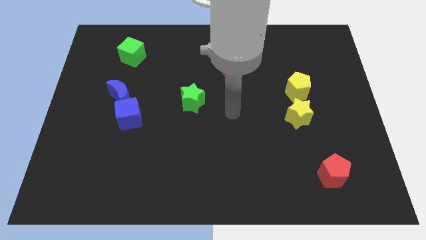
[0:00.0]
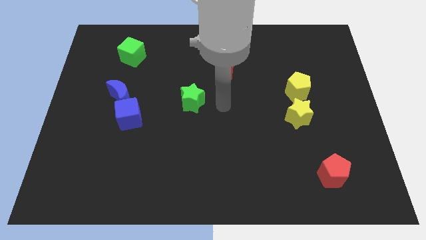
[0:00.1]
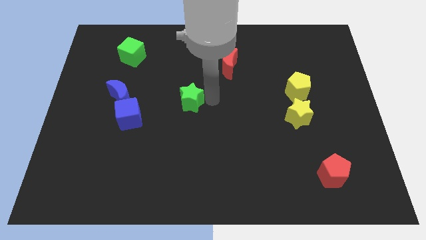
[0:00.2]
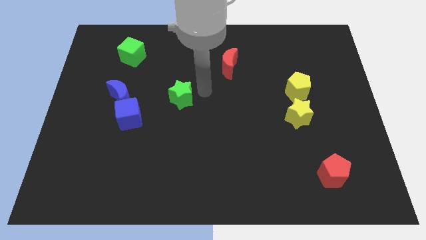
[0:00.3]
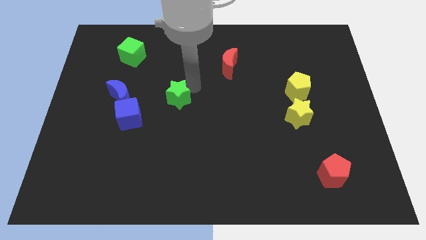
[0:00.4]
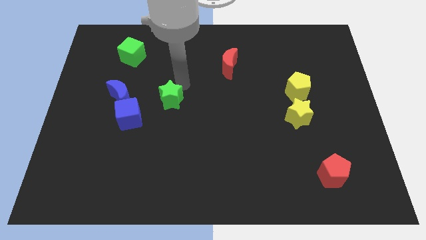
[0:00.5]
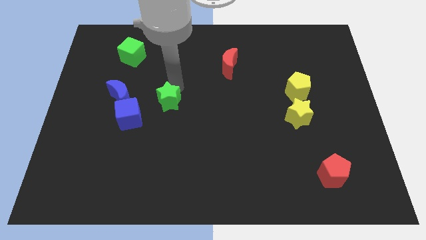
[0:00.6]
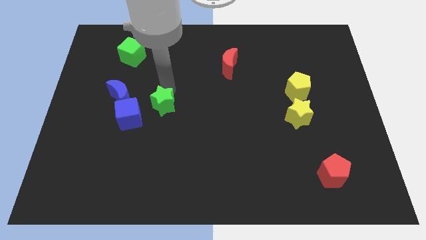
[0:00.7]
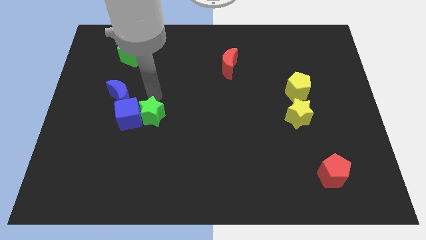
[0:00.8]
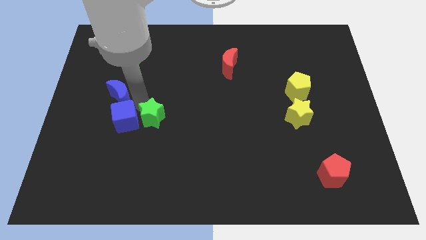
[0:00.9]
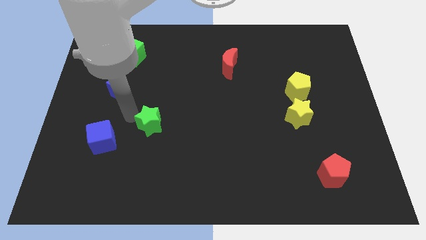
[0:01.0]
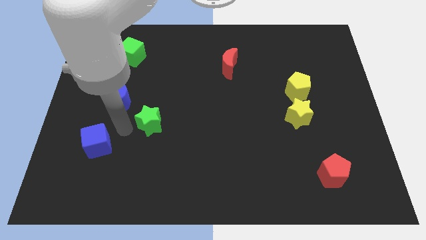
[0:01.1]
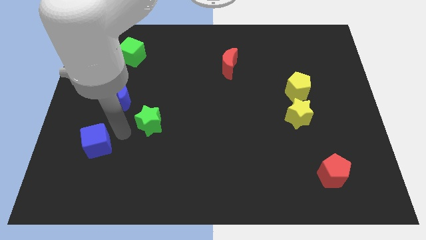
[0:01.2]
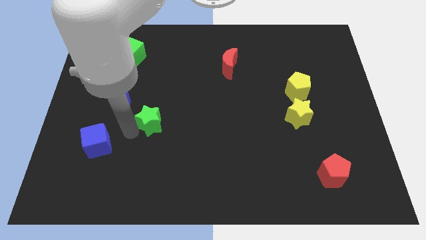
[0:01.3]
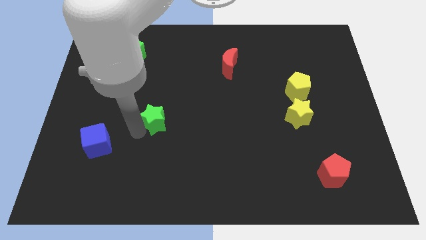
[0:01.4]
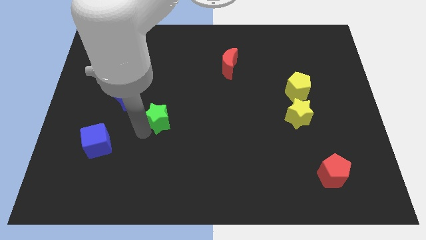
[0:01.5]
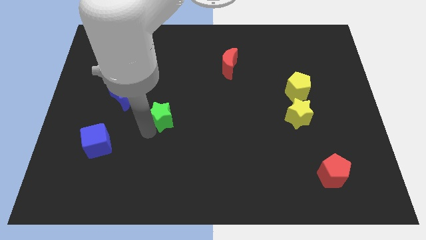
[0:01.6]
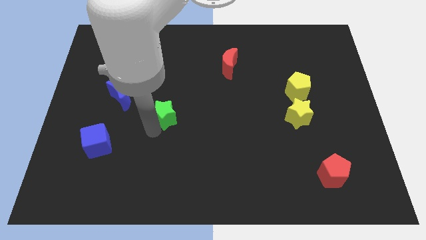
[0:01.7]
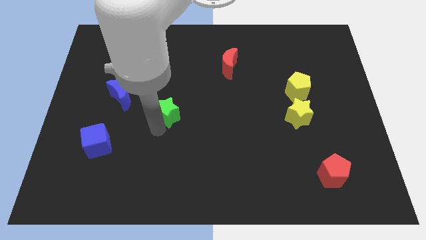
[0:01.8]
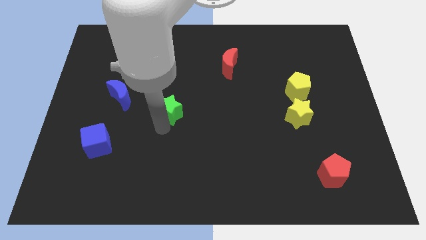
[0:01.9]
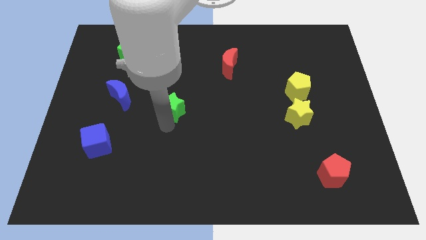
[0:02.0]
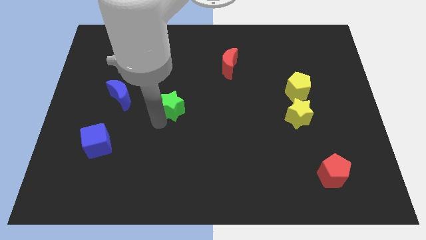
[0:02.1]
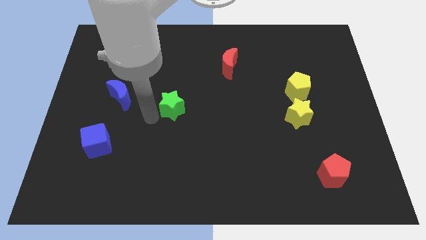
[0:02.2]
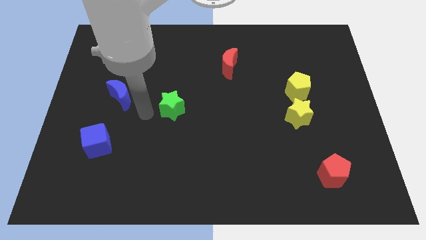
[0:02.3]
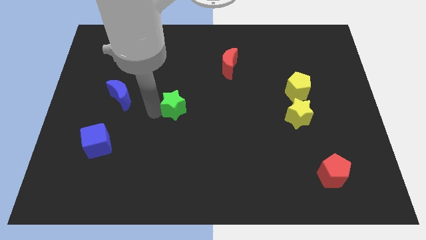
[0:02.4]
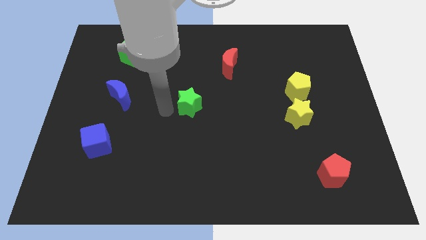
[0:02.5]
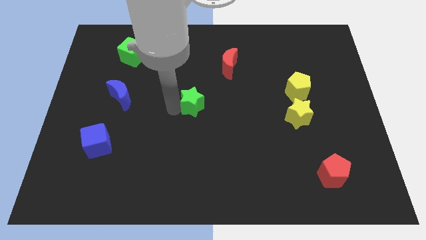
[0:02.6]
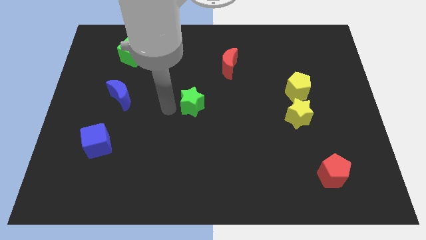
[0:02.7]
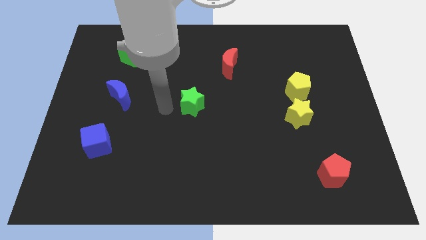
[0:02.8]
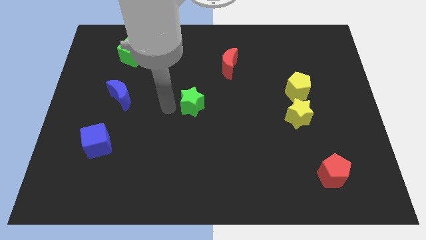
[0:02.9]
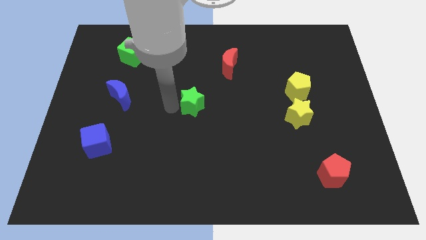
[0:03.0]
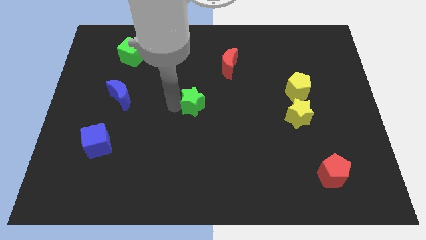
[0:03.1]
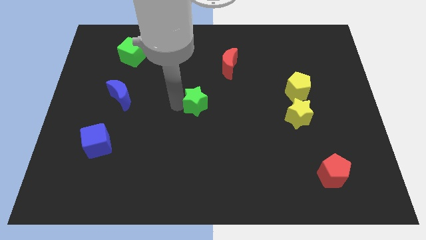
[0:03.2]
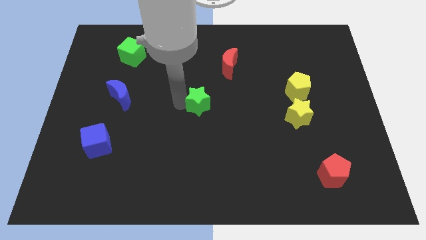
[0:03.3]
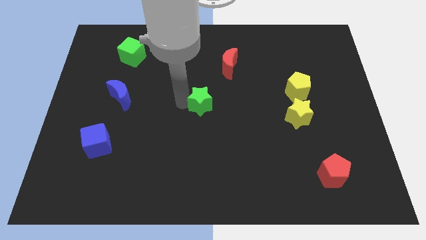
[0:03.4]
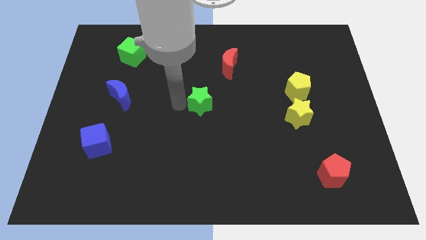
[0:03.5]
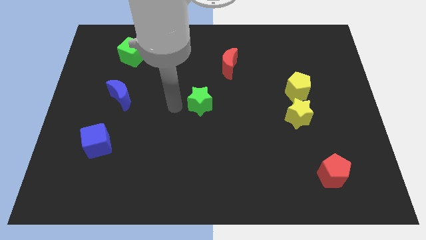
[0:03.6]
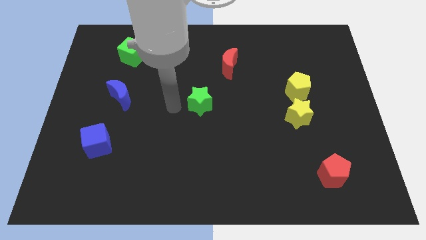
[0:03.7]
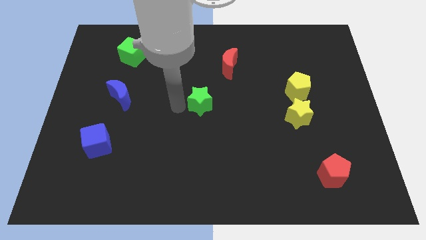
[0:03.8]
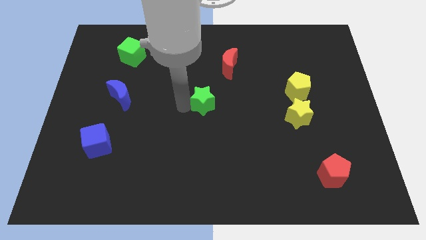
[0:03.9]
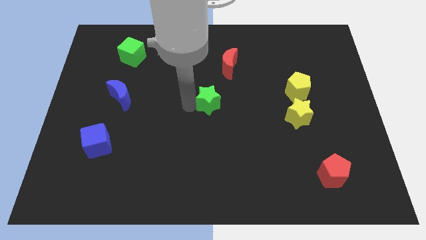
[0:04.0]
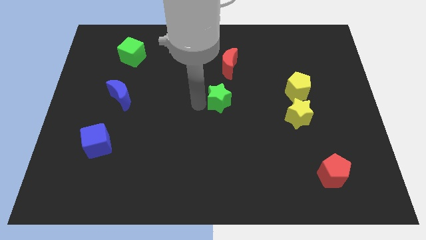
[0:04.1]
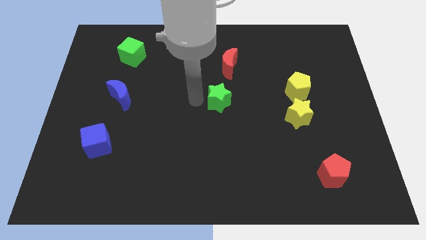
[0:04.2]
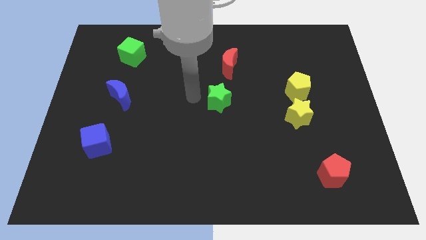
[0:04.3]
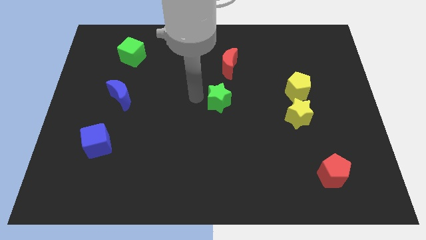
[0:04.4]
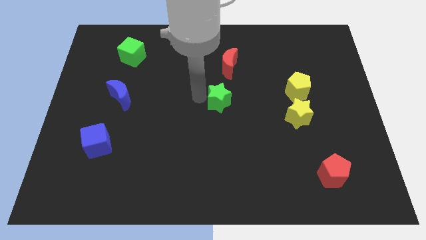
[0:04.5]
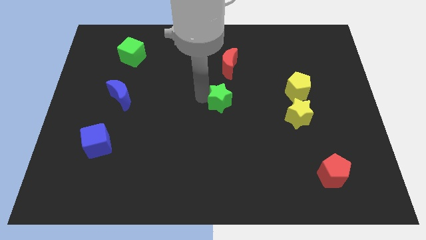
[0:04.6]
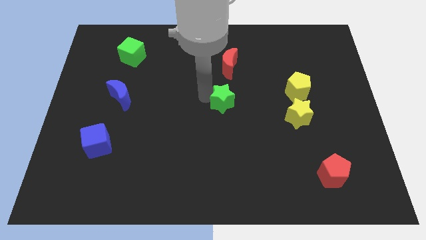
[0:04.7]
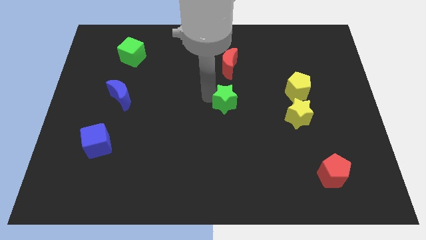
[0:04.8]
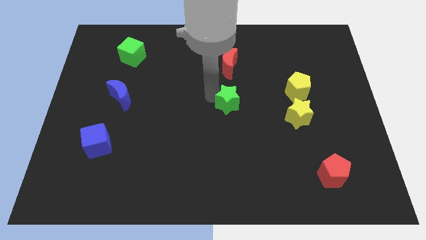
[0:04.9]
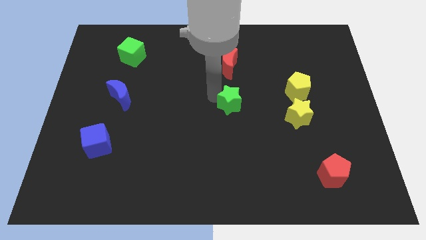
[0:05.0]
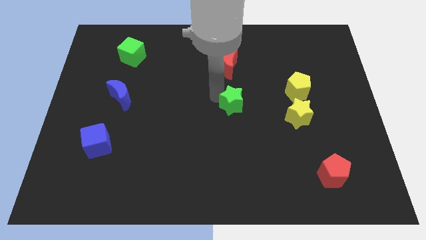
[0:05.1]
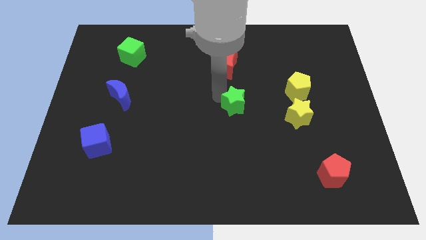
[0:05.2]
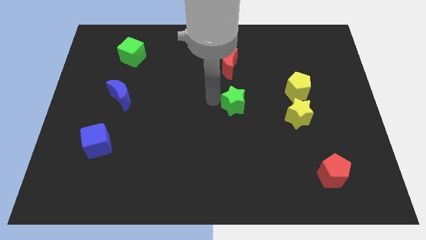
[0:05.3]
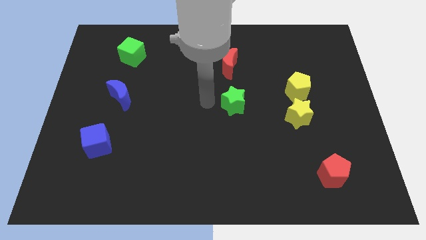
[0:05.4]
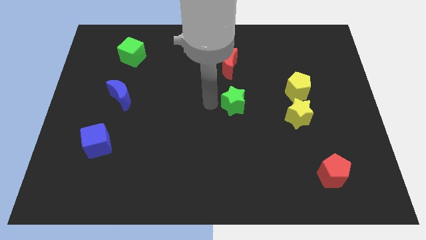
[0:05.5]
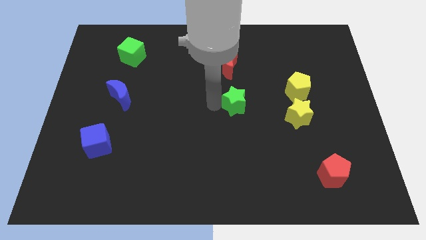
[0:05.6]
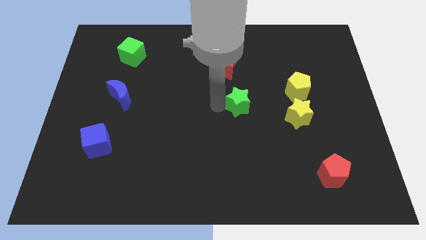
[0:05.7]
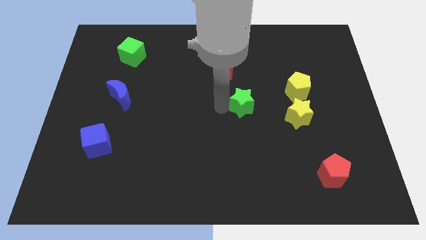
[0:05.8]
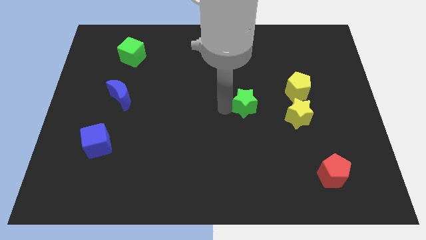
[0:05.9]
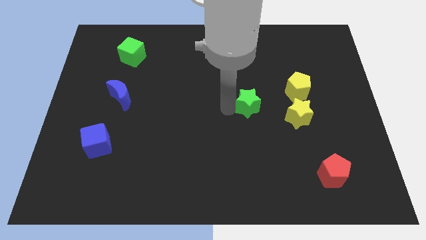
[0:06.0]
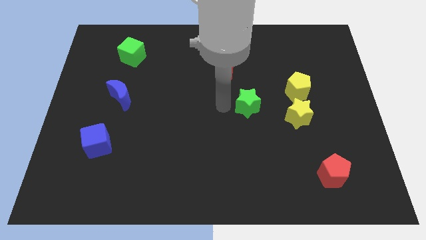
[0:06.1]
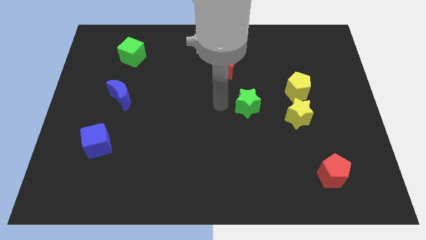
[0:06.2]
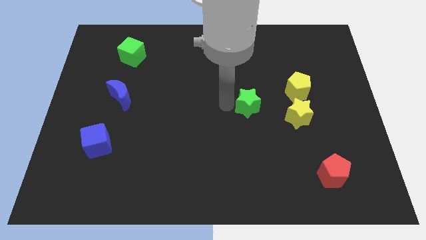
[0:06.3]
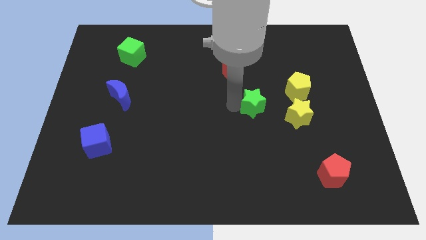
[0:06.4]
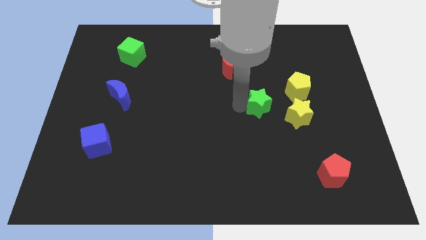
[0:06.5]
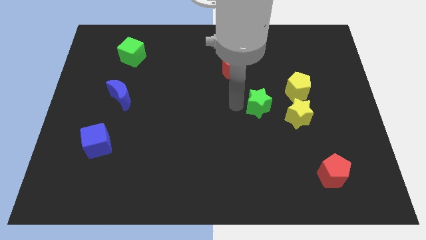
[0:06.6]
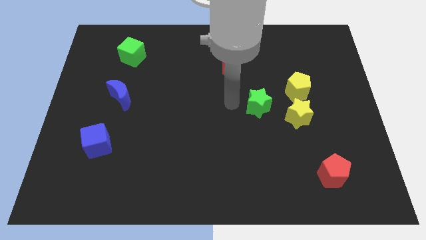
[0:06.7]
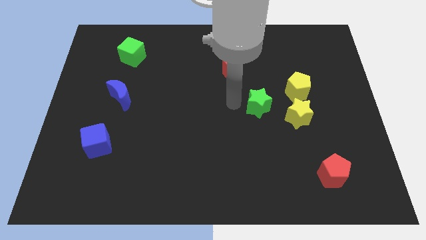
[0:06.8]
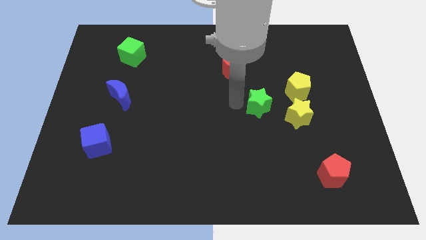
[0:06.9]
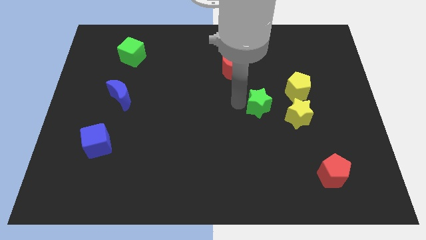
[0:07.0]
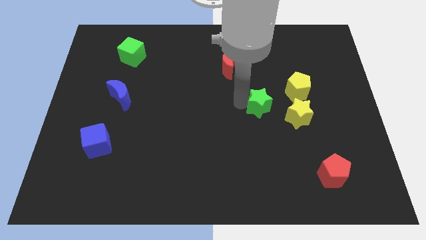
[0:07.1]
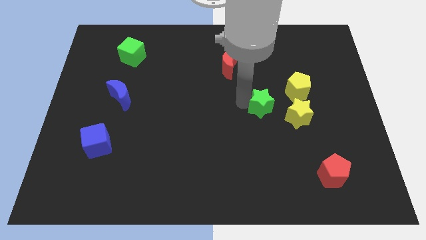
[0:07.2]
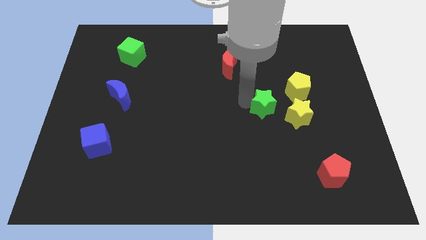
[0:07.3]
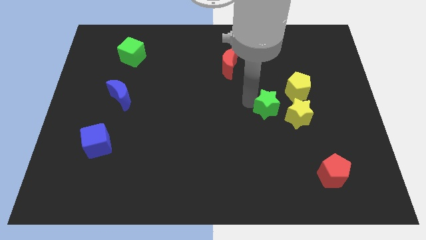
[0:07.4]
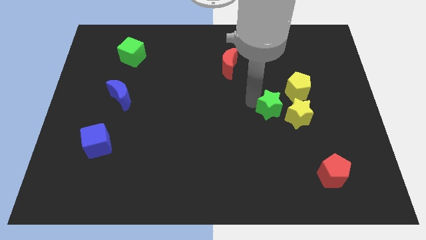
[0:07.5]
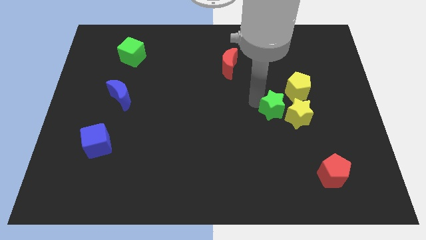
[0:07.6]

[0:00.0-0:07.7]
push the green star to the yellow star

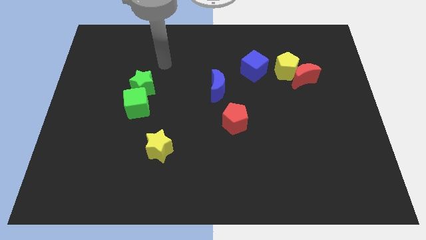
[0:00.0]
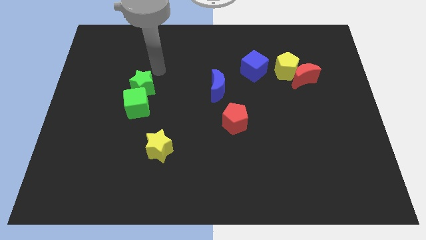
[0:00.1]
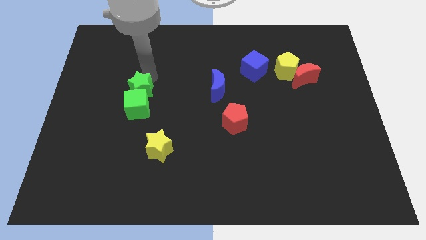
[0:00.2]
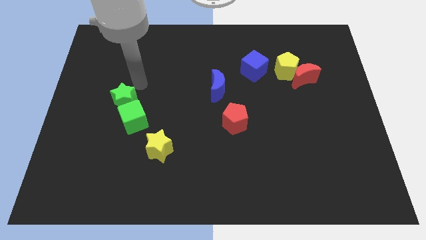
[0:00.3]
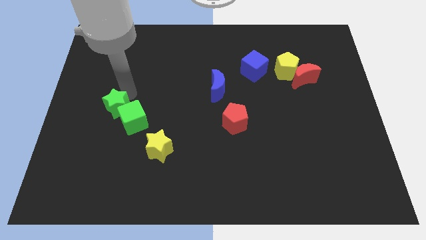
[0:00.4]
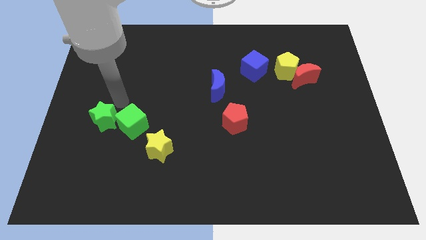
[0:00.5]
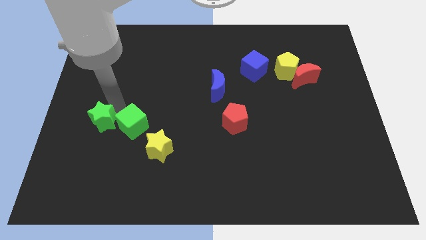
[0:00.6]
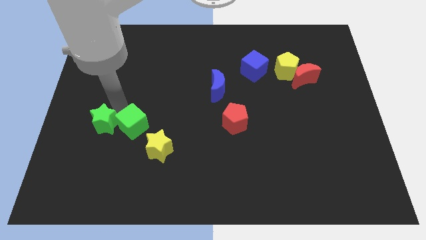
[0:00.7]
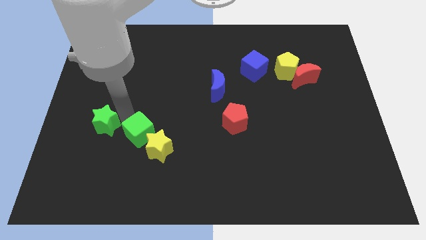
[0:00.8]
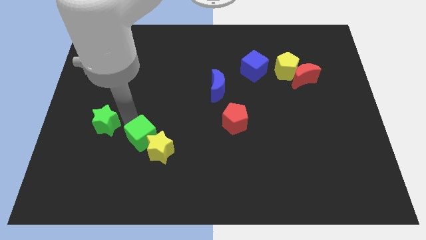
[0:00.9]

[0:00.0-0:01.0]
slide the green cube to the yellow star
